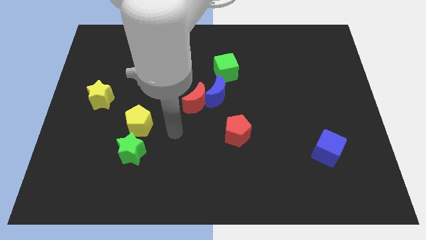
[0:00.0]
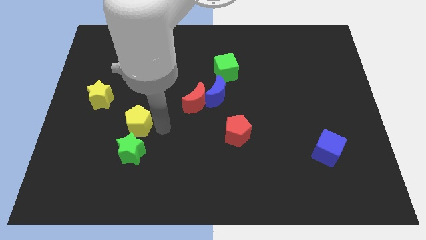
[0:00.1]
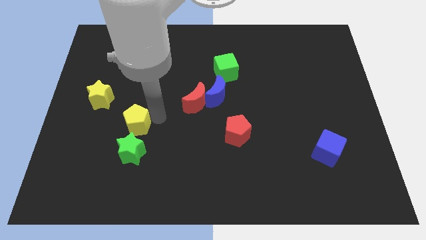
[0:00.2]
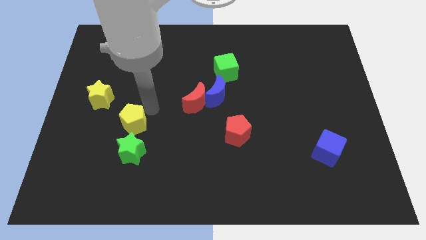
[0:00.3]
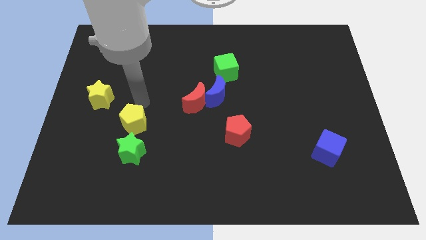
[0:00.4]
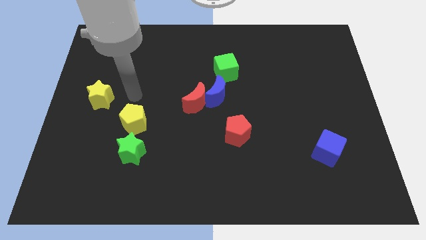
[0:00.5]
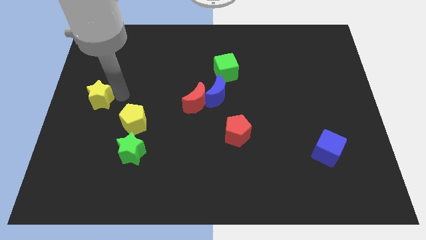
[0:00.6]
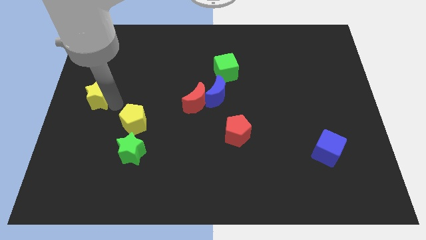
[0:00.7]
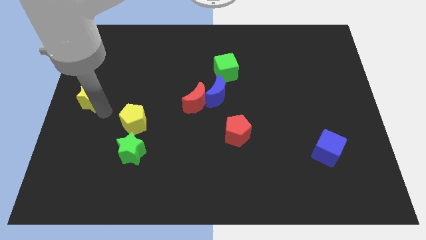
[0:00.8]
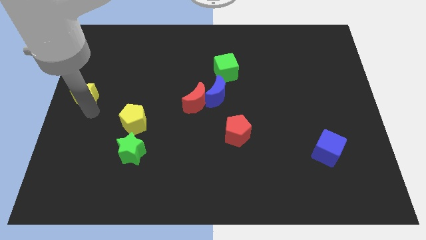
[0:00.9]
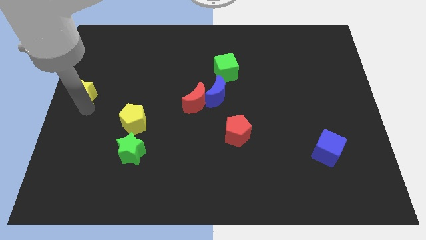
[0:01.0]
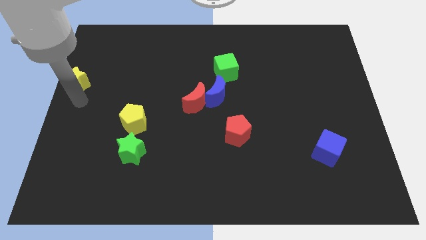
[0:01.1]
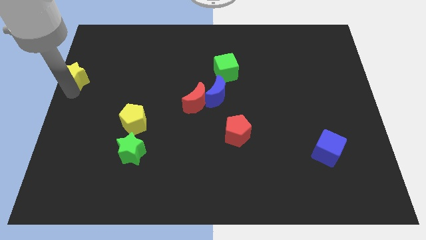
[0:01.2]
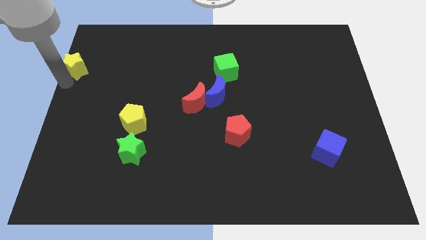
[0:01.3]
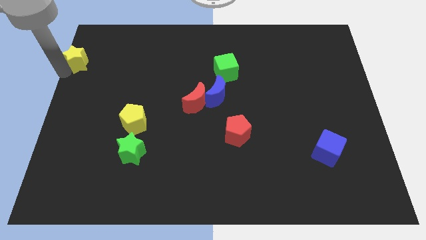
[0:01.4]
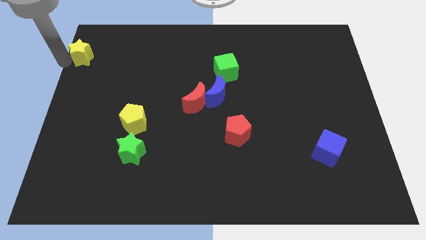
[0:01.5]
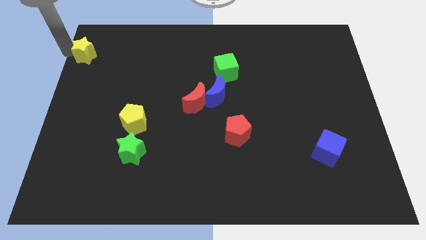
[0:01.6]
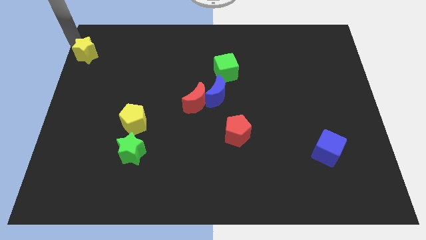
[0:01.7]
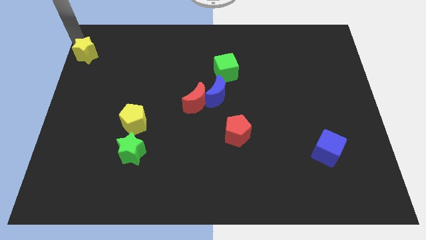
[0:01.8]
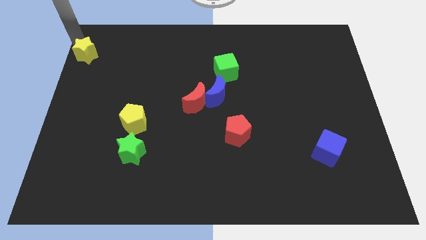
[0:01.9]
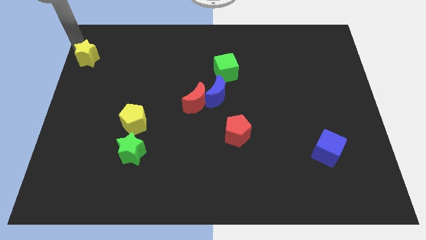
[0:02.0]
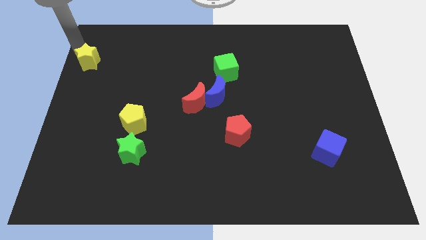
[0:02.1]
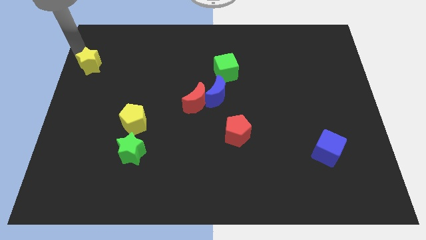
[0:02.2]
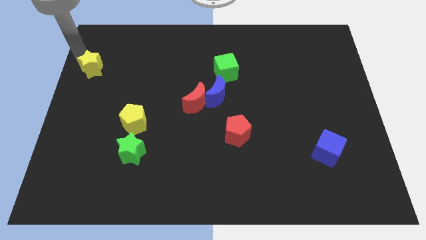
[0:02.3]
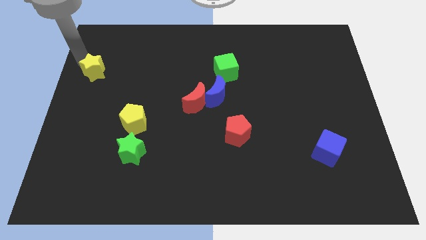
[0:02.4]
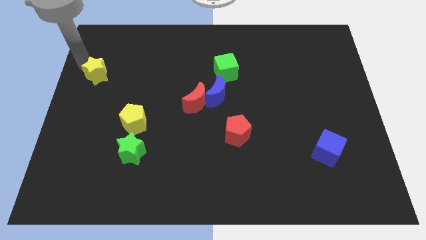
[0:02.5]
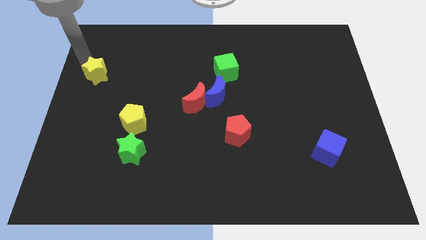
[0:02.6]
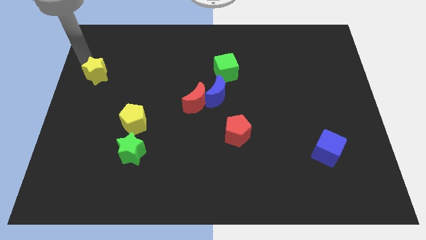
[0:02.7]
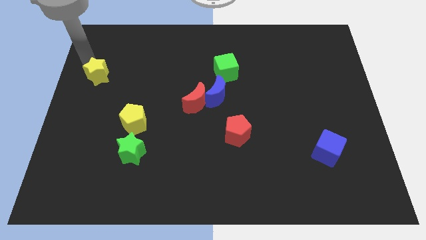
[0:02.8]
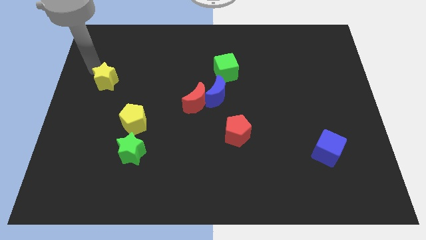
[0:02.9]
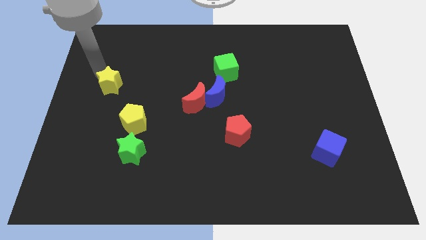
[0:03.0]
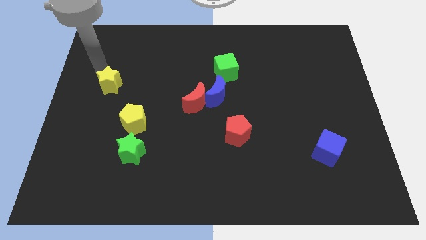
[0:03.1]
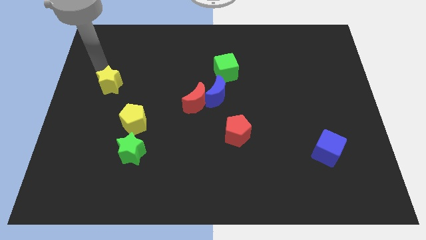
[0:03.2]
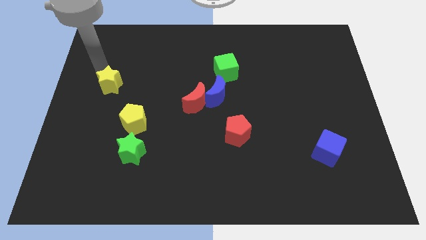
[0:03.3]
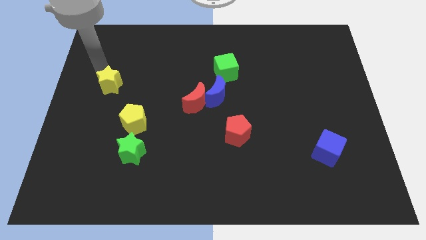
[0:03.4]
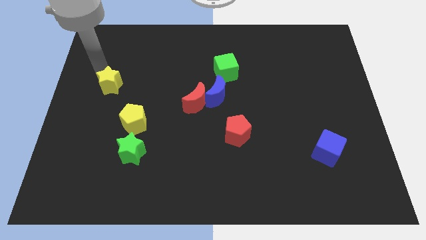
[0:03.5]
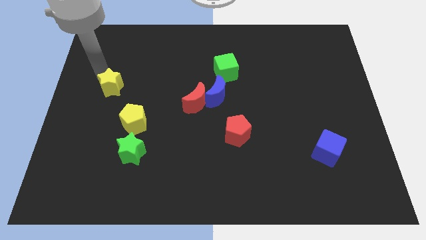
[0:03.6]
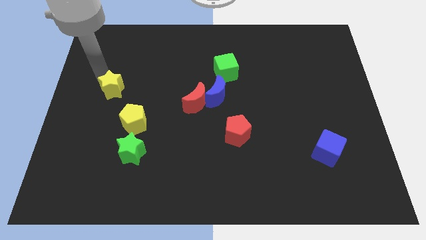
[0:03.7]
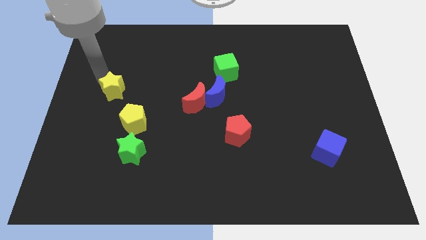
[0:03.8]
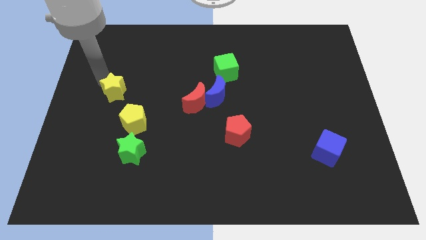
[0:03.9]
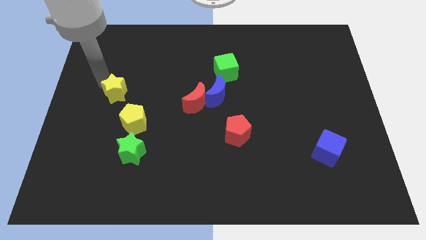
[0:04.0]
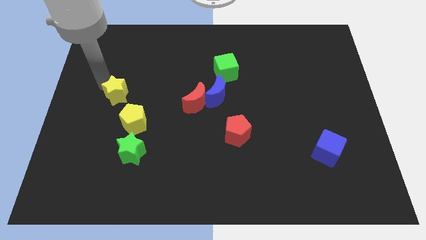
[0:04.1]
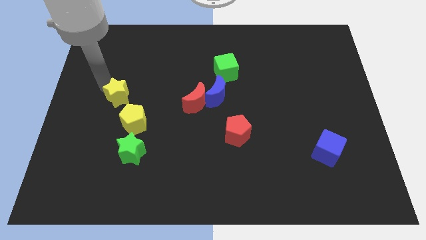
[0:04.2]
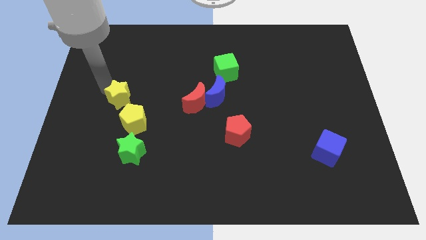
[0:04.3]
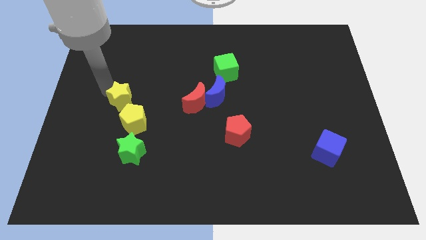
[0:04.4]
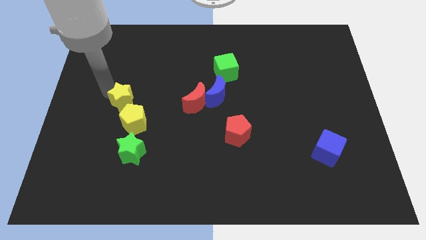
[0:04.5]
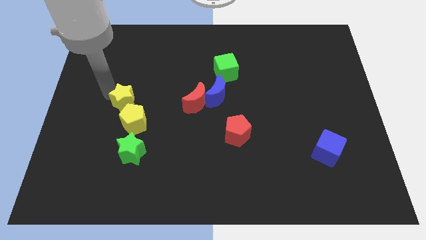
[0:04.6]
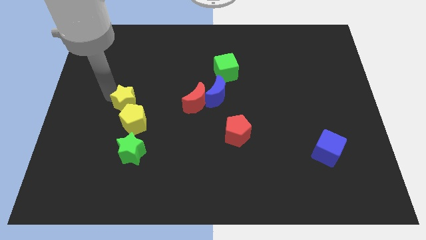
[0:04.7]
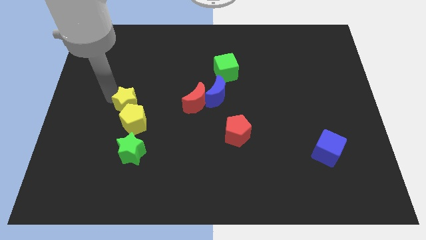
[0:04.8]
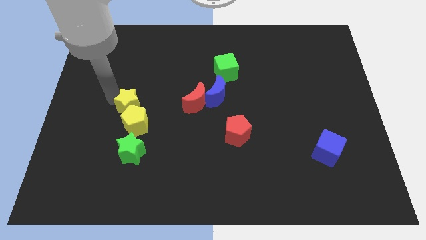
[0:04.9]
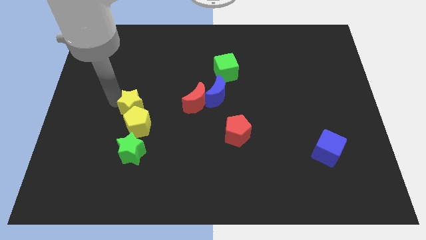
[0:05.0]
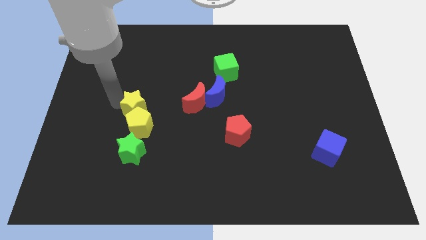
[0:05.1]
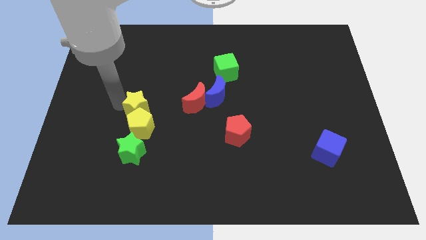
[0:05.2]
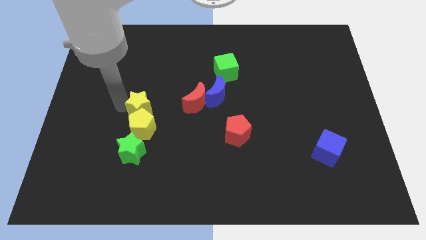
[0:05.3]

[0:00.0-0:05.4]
push the yellow star diagonally up and to the right of the yellow pentagon

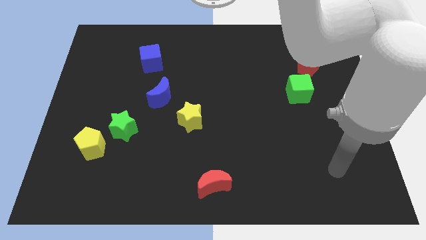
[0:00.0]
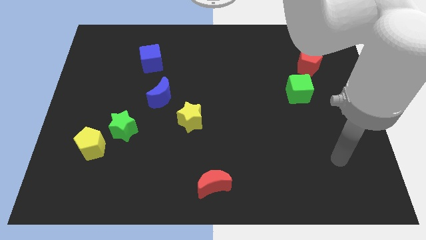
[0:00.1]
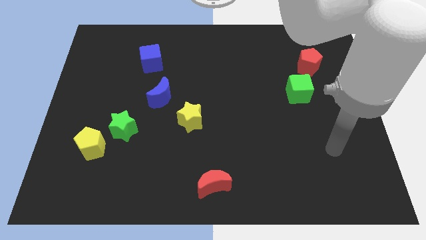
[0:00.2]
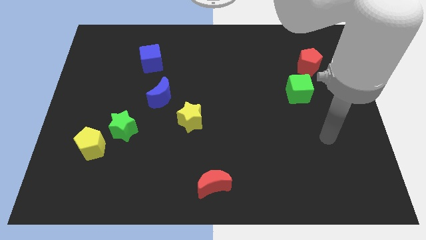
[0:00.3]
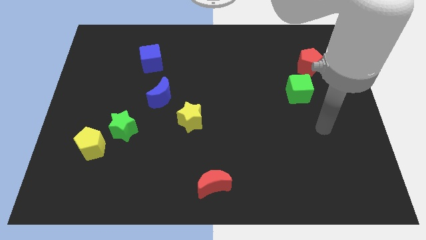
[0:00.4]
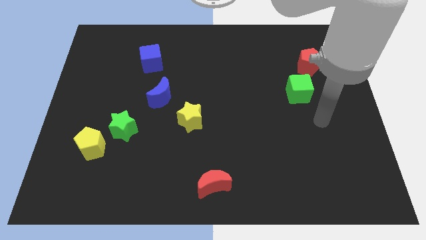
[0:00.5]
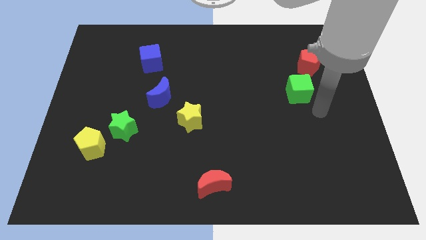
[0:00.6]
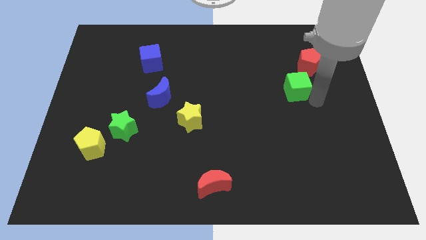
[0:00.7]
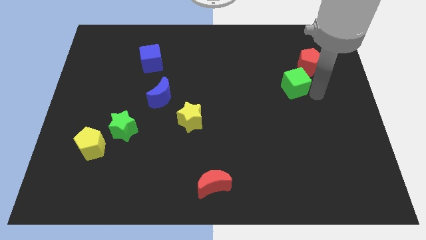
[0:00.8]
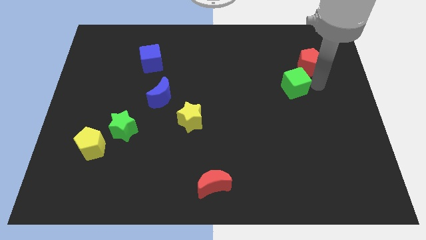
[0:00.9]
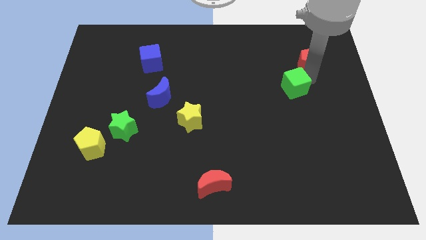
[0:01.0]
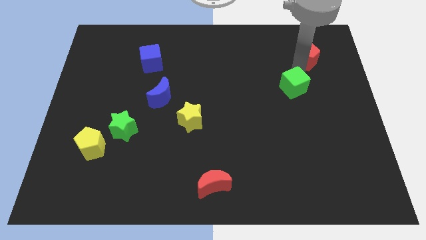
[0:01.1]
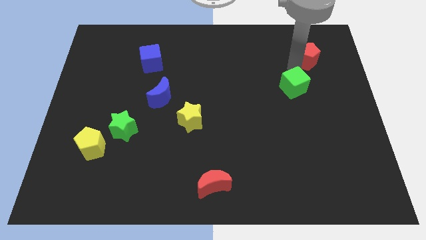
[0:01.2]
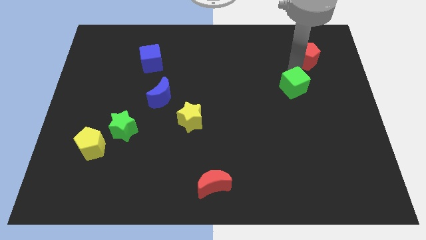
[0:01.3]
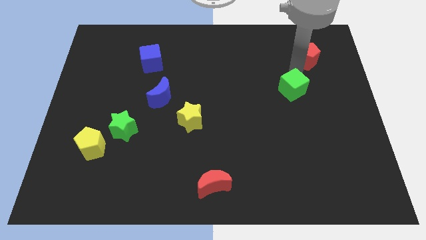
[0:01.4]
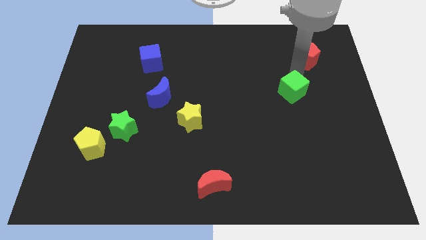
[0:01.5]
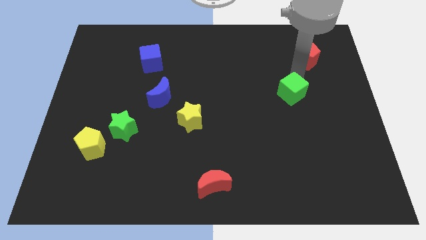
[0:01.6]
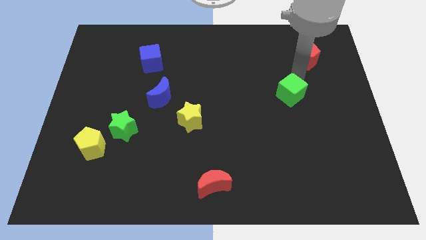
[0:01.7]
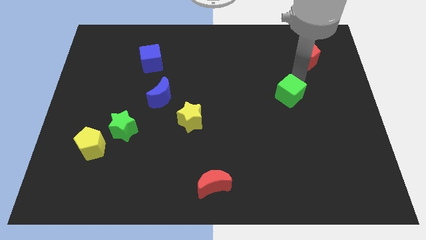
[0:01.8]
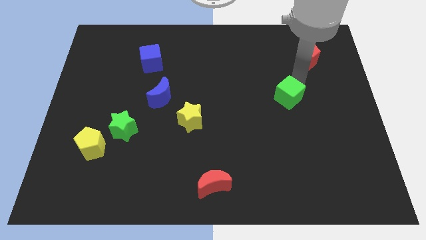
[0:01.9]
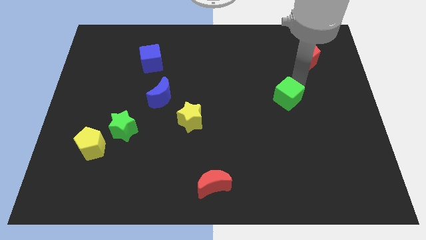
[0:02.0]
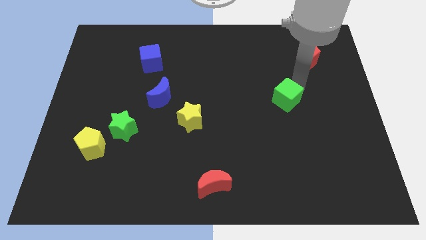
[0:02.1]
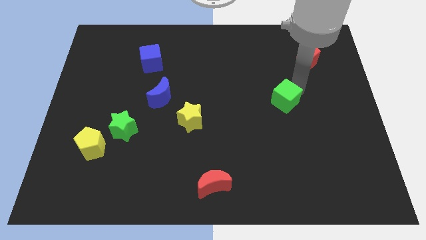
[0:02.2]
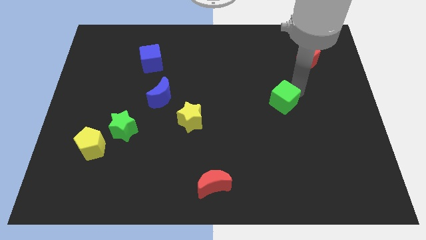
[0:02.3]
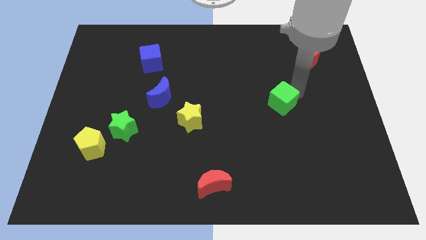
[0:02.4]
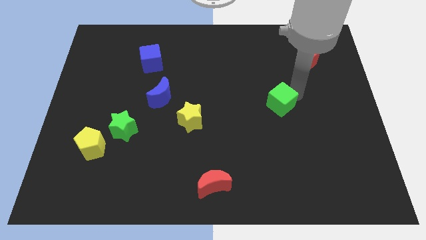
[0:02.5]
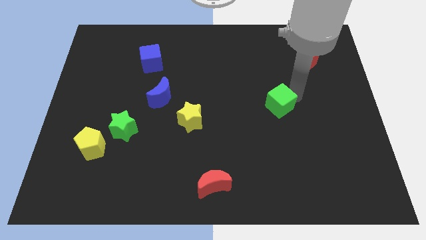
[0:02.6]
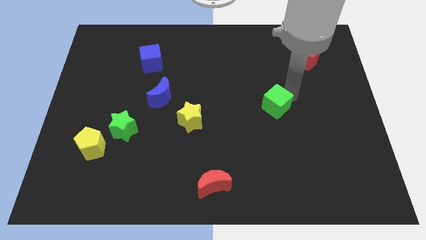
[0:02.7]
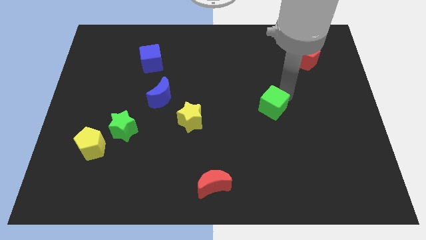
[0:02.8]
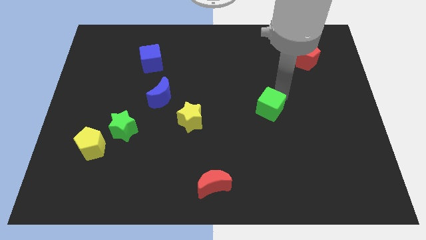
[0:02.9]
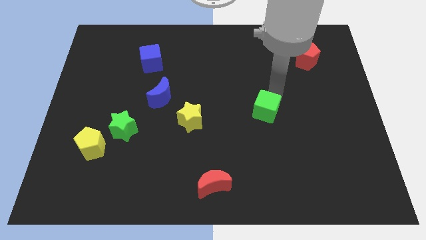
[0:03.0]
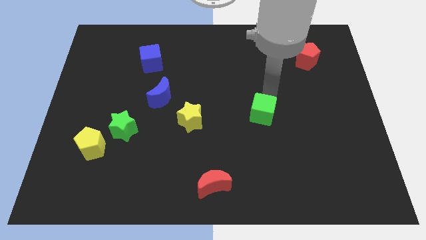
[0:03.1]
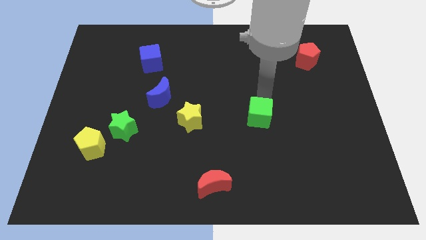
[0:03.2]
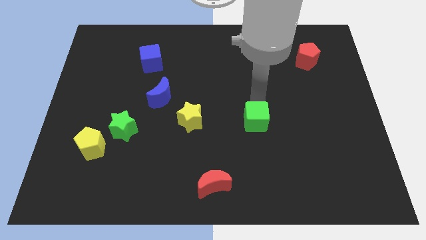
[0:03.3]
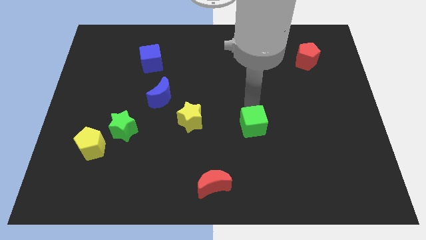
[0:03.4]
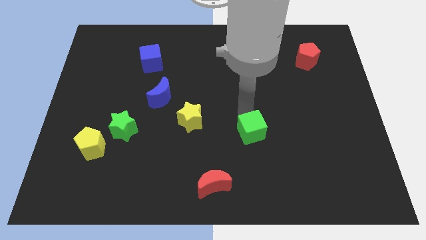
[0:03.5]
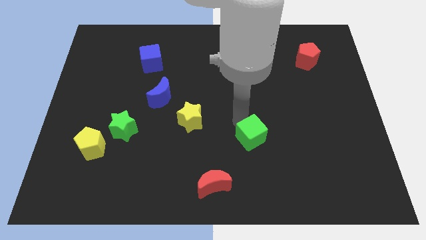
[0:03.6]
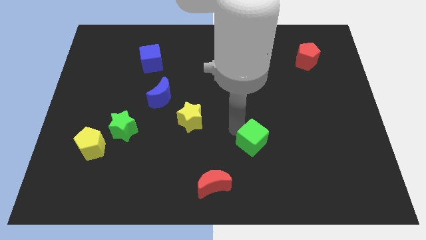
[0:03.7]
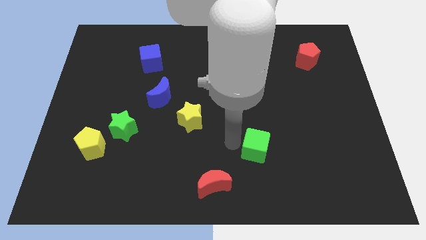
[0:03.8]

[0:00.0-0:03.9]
push the green cube to the top right side of the red moon
